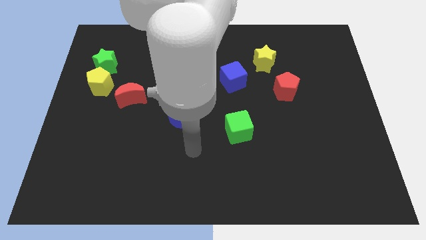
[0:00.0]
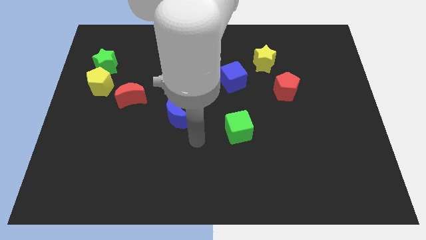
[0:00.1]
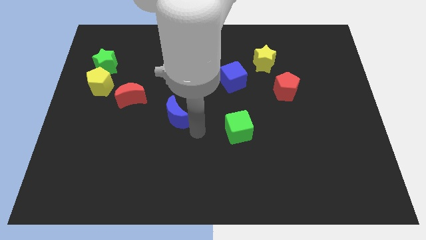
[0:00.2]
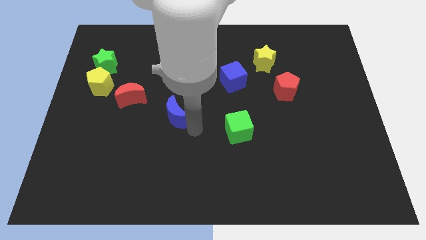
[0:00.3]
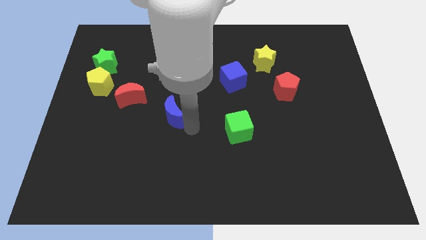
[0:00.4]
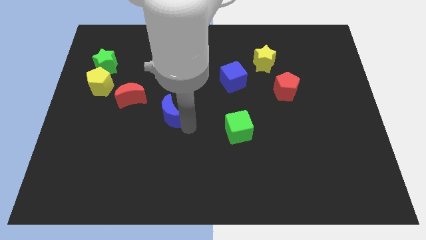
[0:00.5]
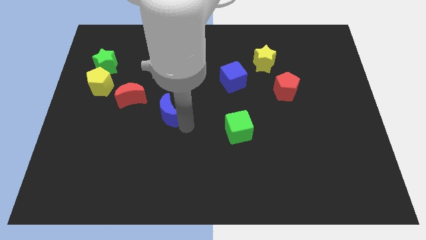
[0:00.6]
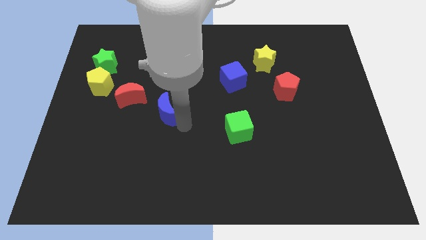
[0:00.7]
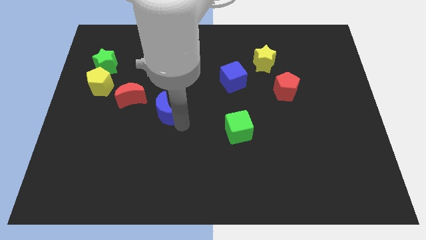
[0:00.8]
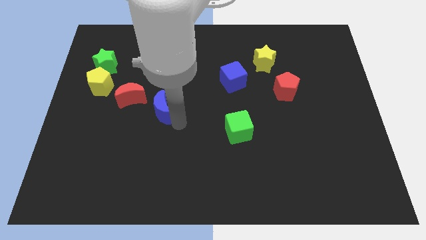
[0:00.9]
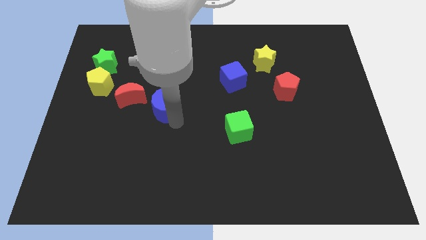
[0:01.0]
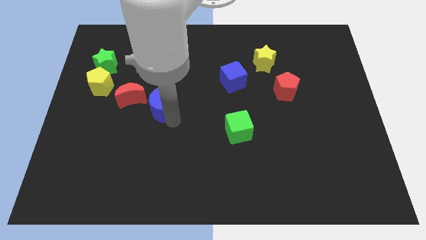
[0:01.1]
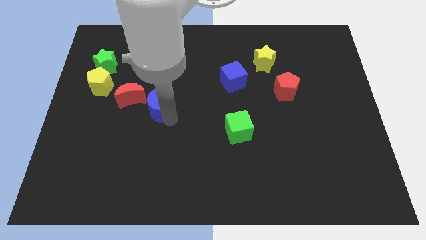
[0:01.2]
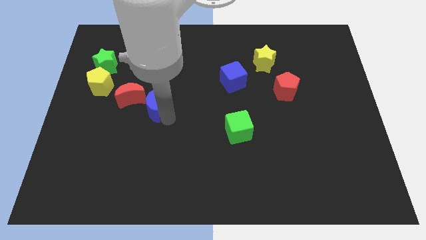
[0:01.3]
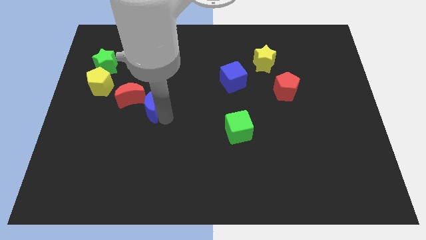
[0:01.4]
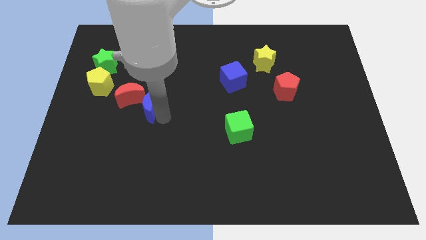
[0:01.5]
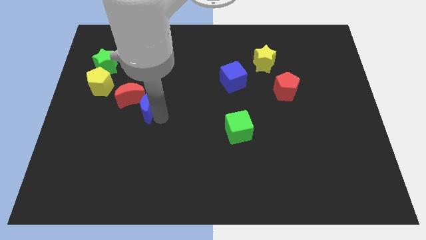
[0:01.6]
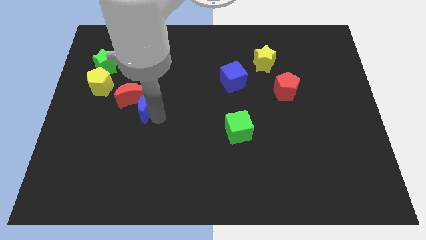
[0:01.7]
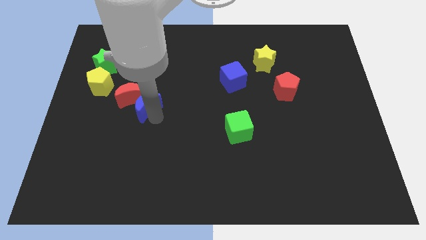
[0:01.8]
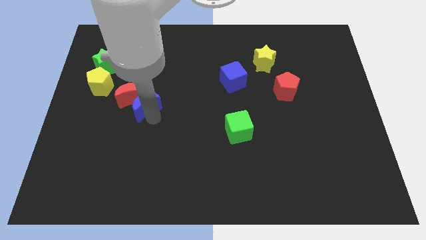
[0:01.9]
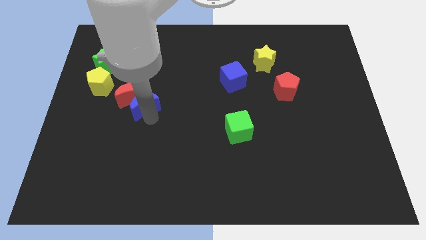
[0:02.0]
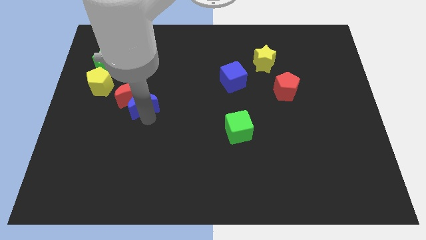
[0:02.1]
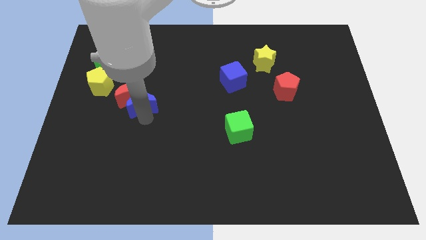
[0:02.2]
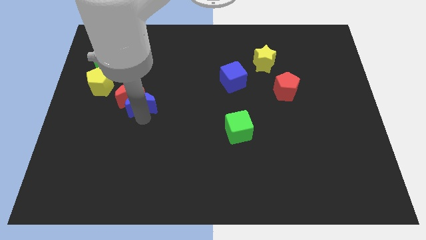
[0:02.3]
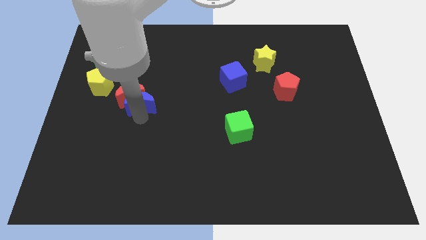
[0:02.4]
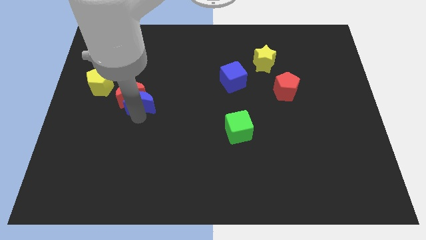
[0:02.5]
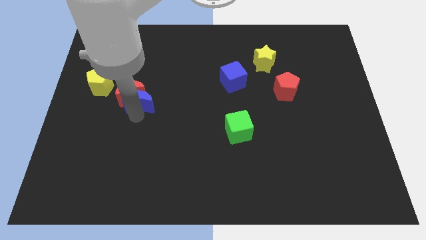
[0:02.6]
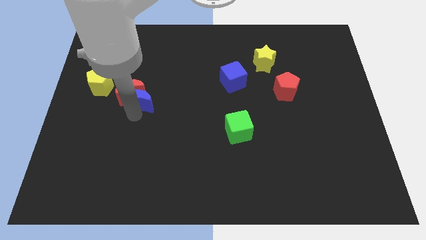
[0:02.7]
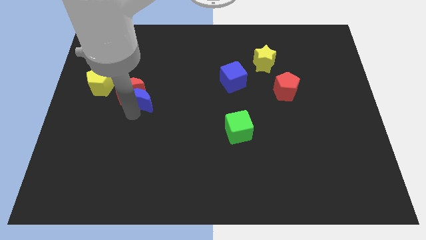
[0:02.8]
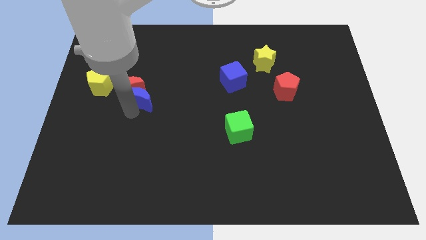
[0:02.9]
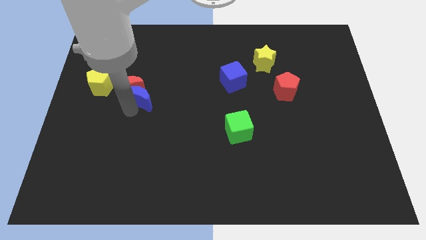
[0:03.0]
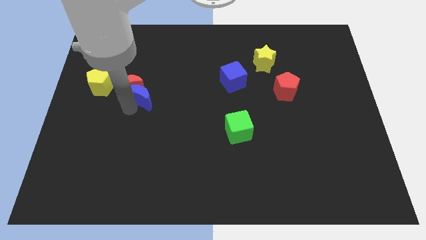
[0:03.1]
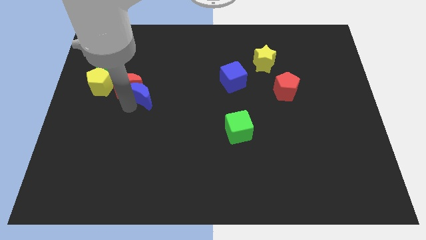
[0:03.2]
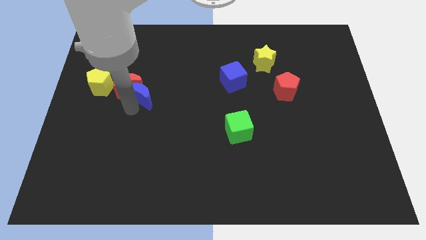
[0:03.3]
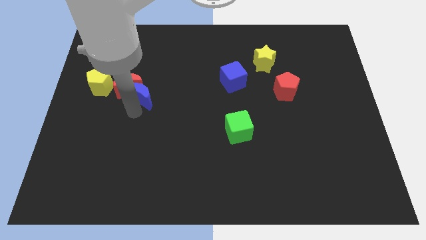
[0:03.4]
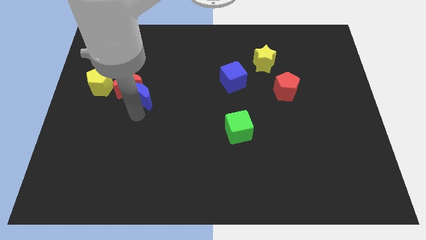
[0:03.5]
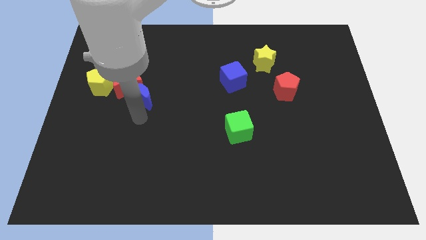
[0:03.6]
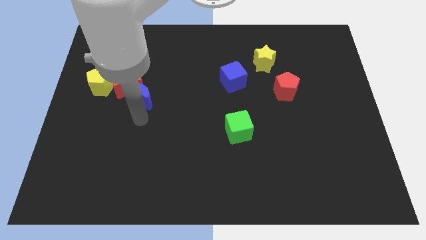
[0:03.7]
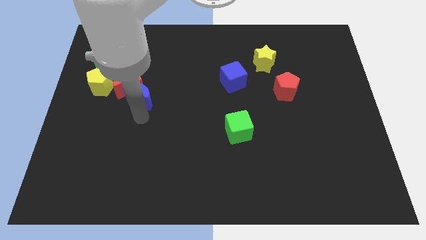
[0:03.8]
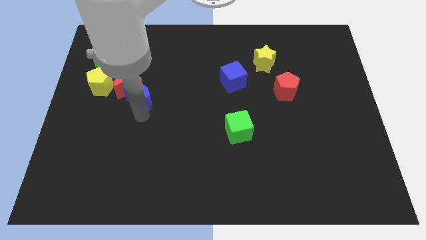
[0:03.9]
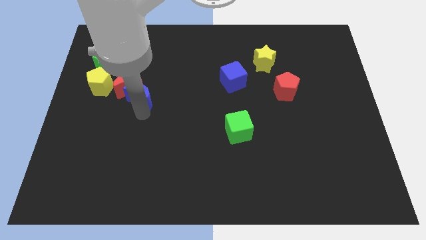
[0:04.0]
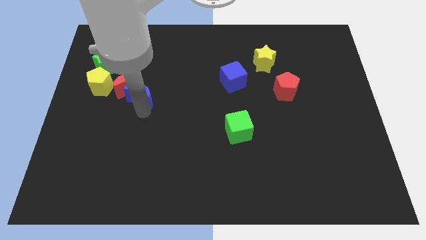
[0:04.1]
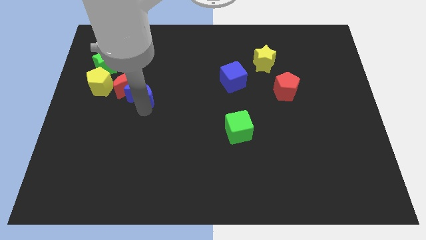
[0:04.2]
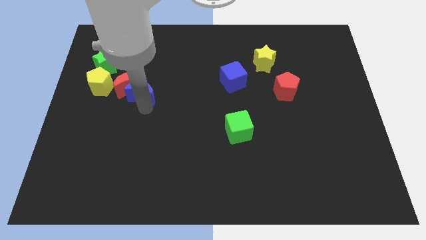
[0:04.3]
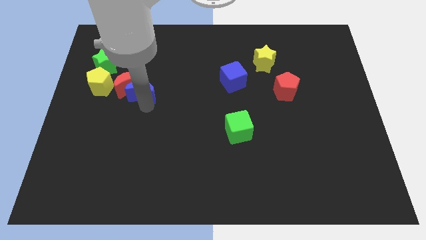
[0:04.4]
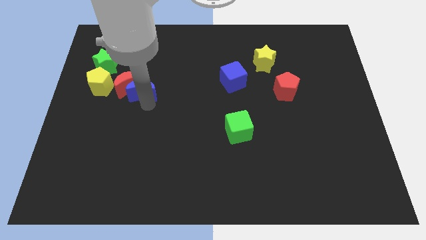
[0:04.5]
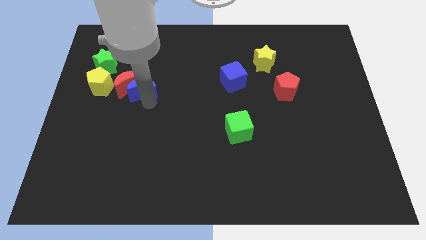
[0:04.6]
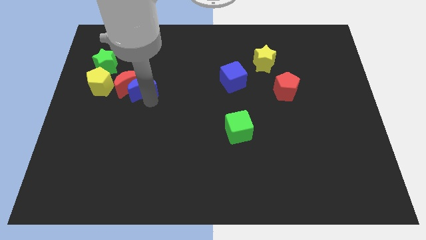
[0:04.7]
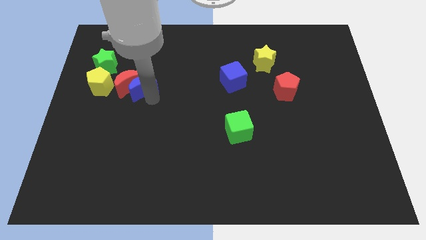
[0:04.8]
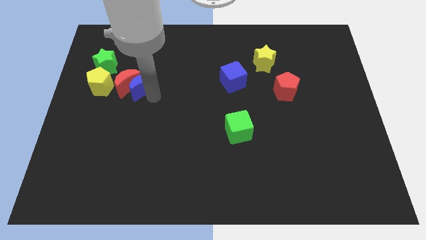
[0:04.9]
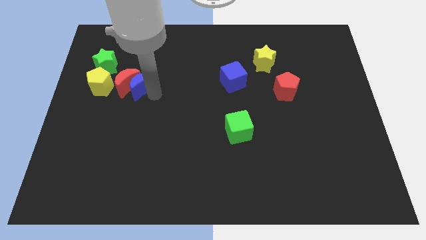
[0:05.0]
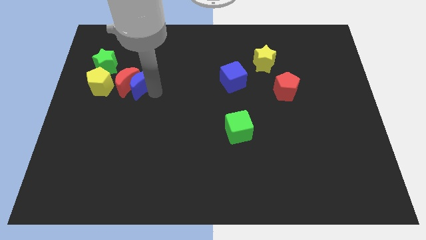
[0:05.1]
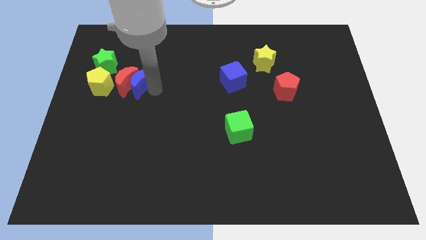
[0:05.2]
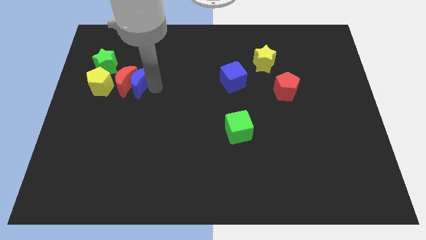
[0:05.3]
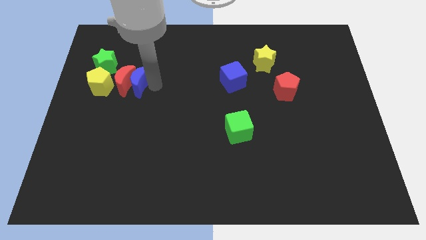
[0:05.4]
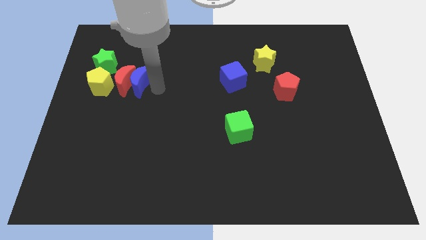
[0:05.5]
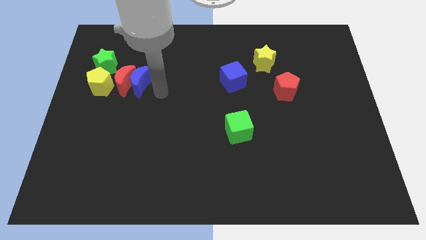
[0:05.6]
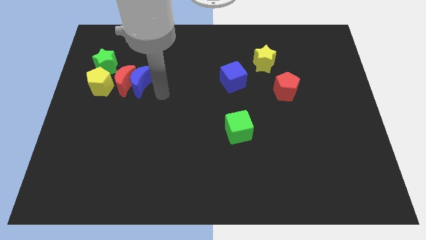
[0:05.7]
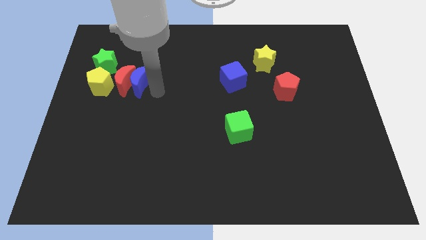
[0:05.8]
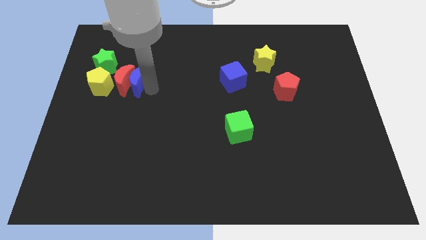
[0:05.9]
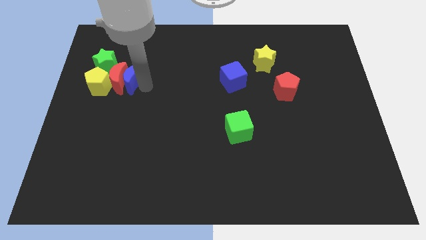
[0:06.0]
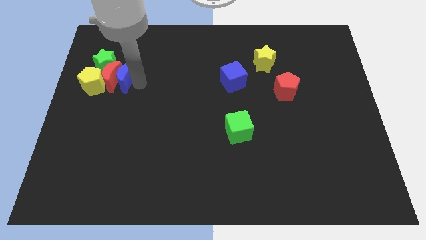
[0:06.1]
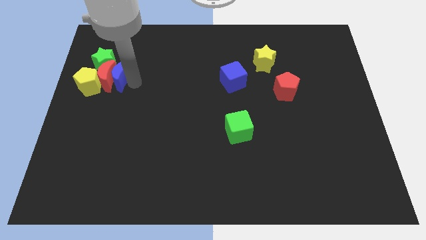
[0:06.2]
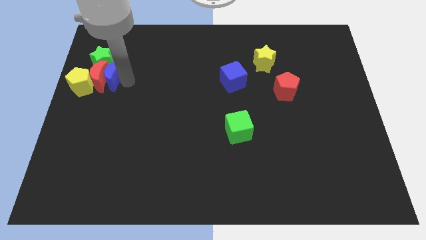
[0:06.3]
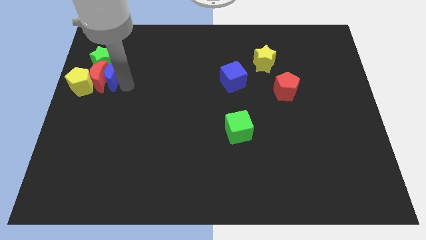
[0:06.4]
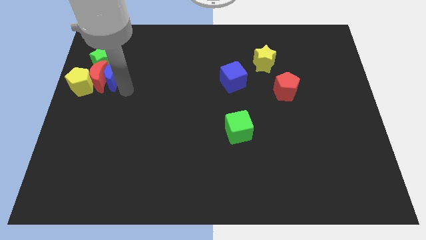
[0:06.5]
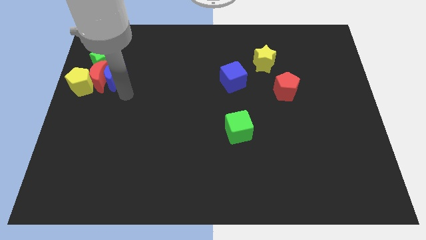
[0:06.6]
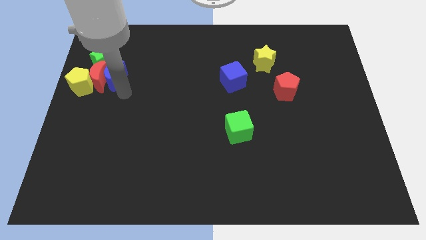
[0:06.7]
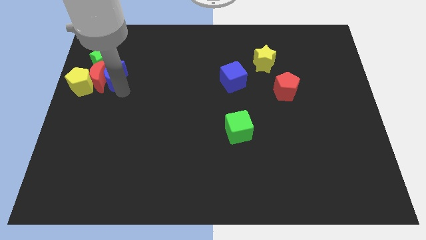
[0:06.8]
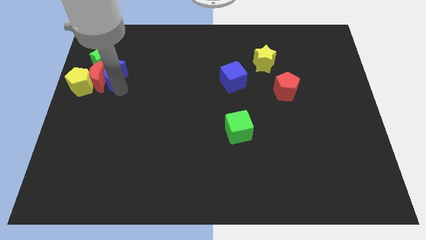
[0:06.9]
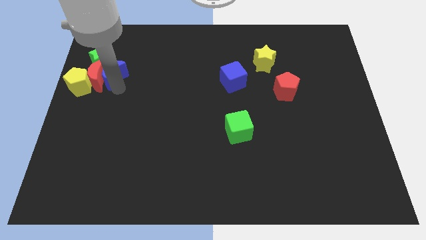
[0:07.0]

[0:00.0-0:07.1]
put the blue moon next to the green star
